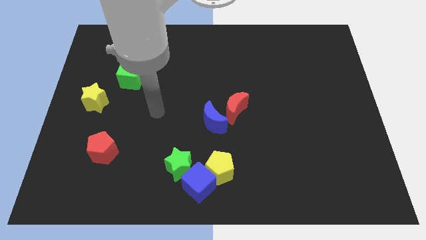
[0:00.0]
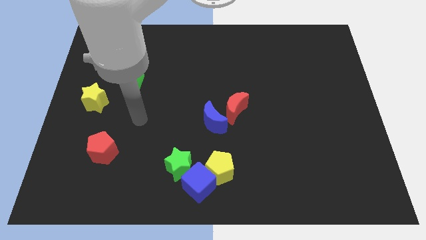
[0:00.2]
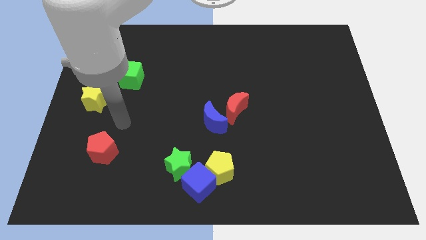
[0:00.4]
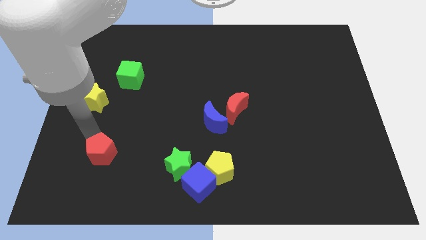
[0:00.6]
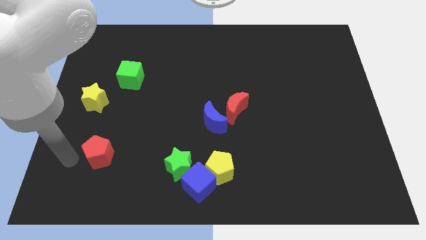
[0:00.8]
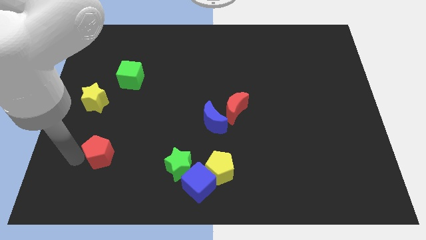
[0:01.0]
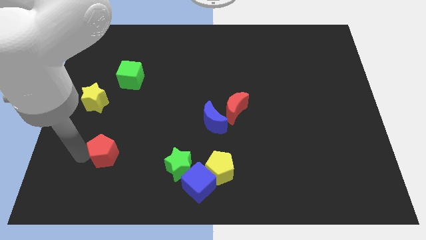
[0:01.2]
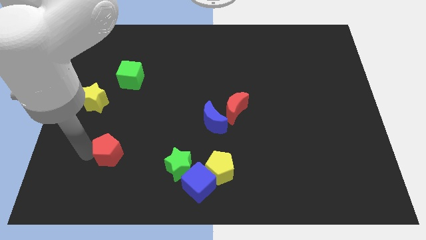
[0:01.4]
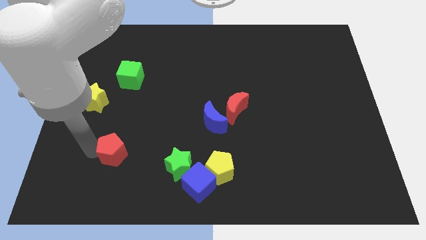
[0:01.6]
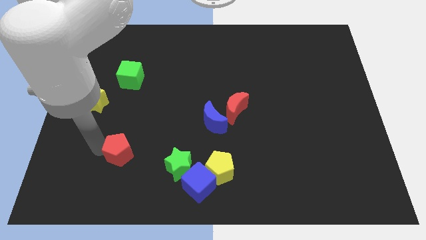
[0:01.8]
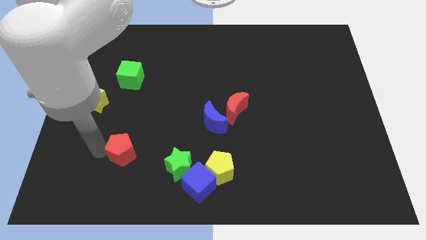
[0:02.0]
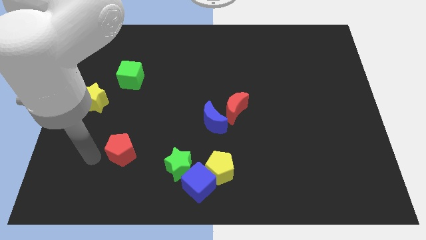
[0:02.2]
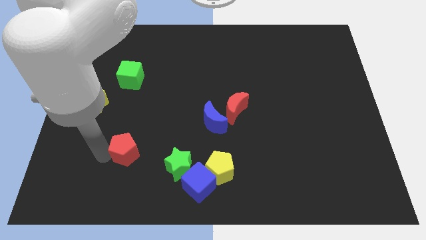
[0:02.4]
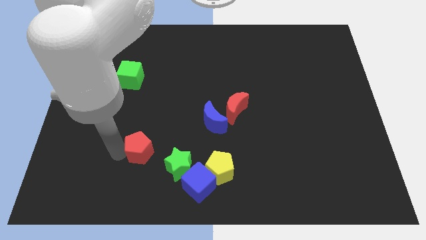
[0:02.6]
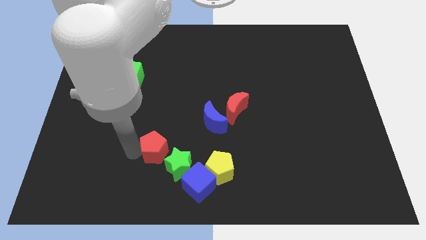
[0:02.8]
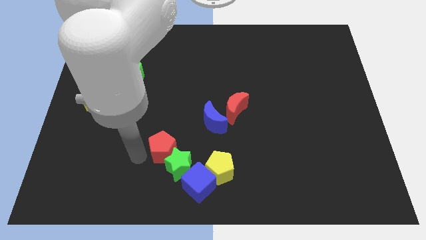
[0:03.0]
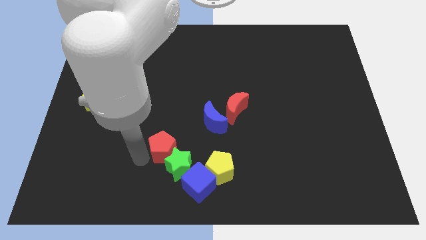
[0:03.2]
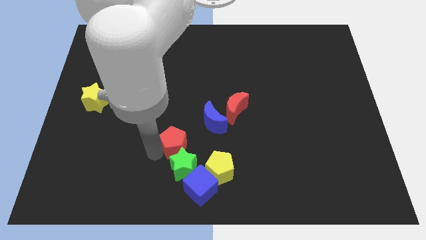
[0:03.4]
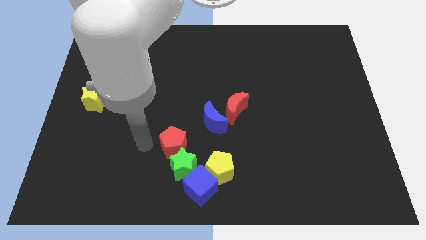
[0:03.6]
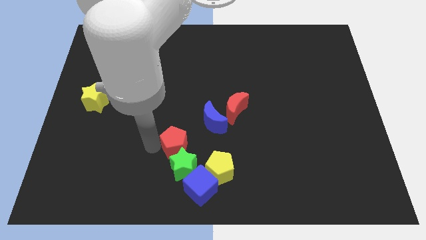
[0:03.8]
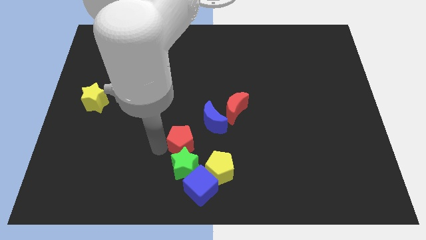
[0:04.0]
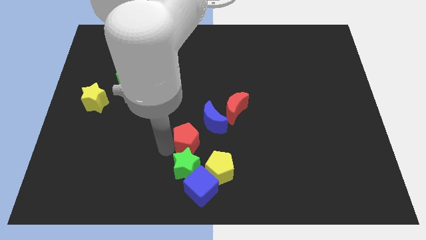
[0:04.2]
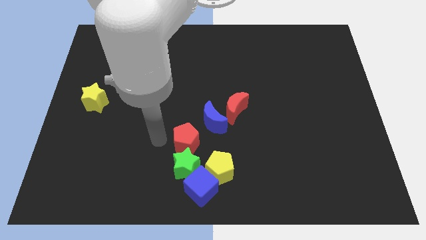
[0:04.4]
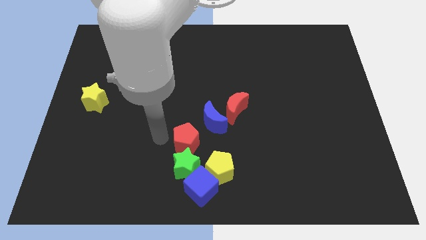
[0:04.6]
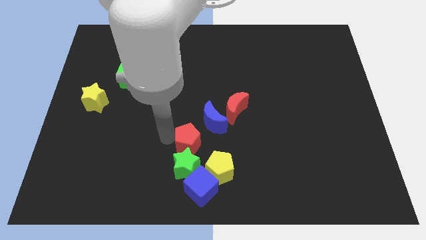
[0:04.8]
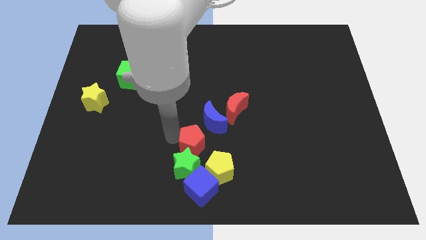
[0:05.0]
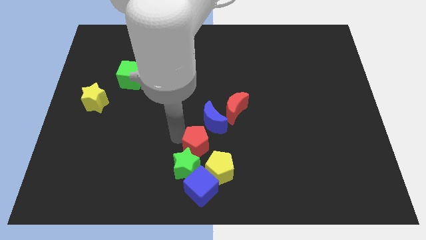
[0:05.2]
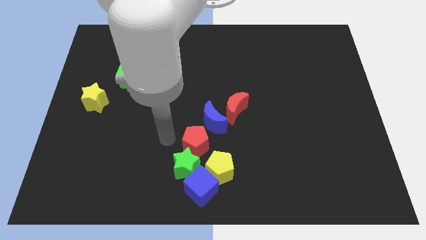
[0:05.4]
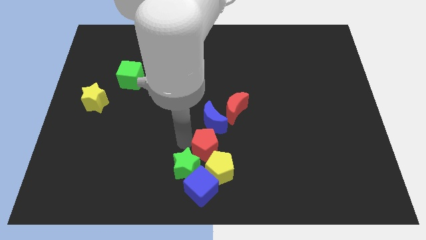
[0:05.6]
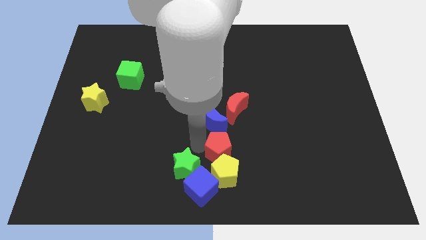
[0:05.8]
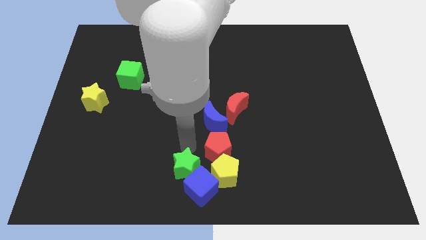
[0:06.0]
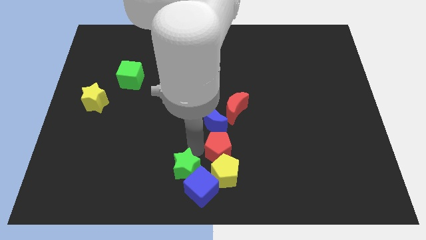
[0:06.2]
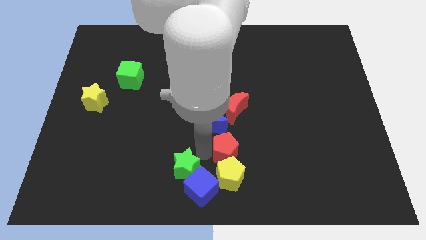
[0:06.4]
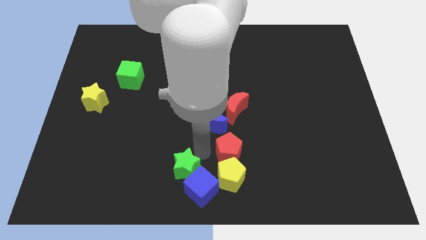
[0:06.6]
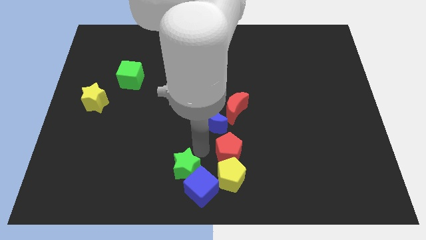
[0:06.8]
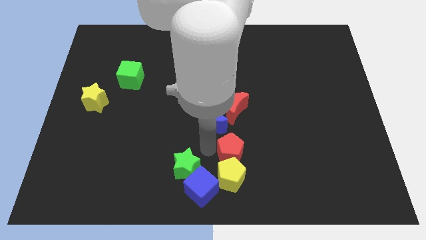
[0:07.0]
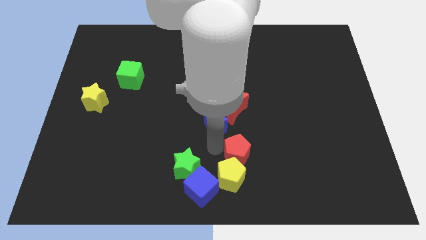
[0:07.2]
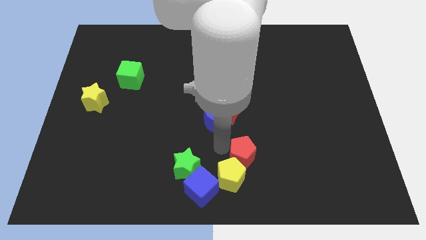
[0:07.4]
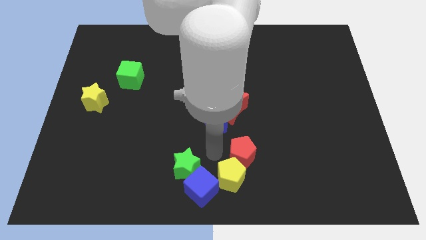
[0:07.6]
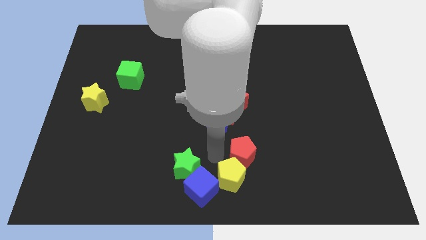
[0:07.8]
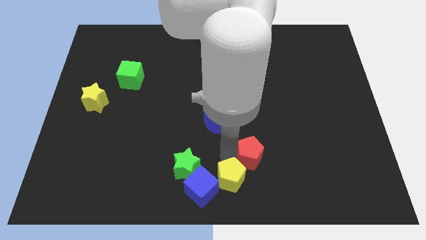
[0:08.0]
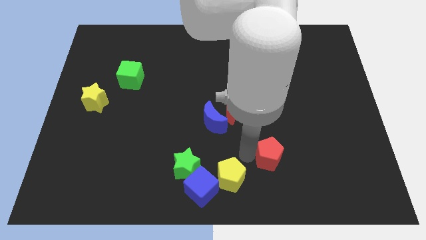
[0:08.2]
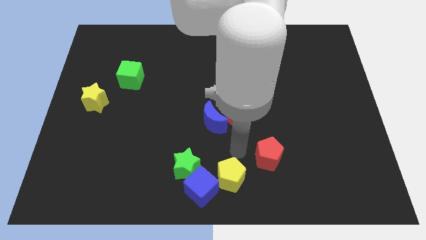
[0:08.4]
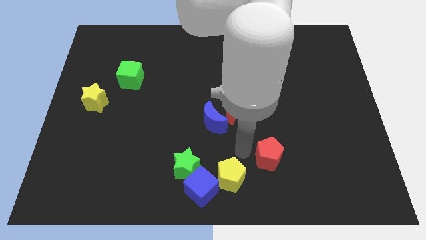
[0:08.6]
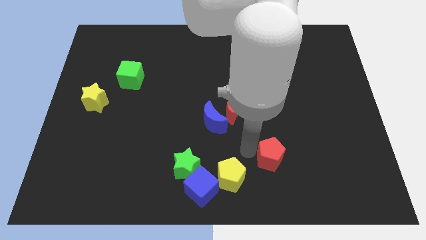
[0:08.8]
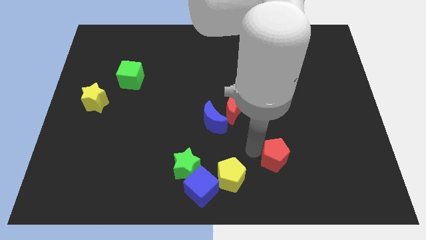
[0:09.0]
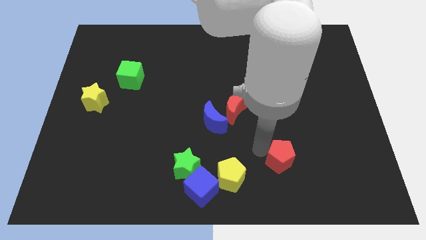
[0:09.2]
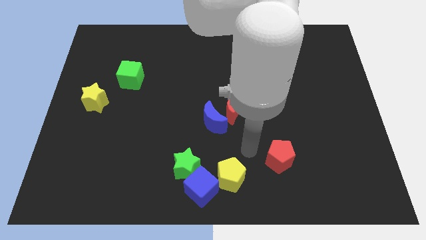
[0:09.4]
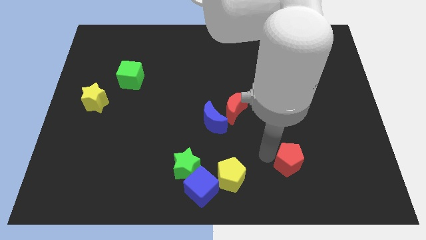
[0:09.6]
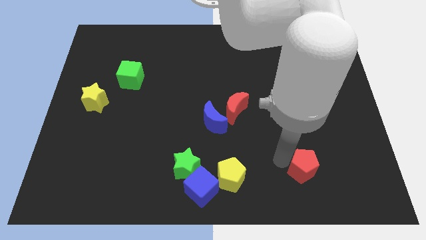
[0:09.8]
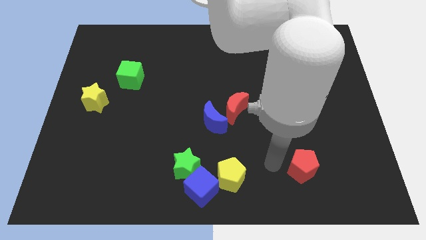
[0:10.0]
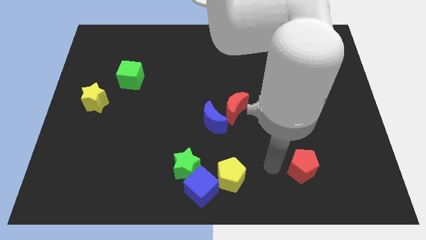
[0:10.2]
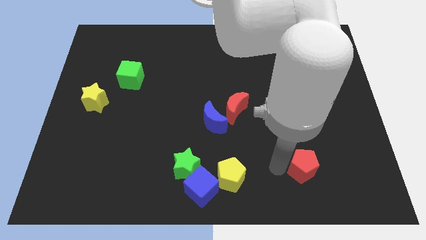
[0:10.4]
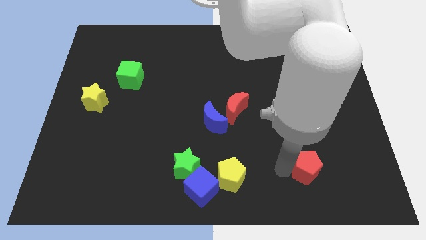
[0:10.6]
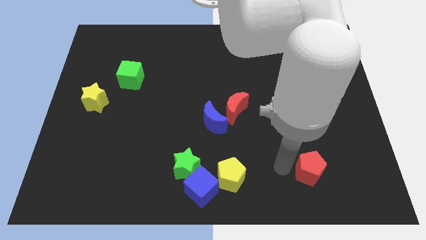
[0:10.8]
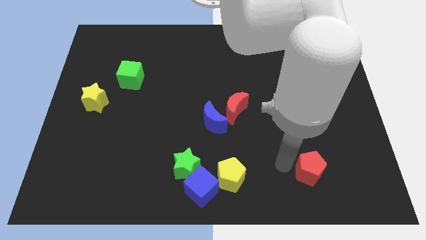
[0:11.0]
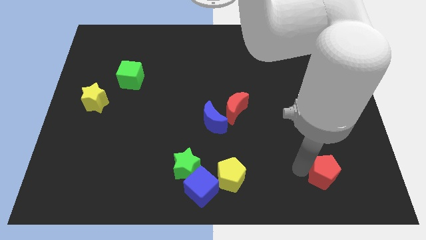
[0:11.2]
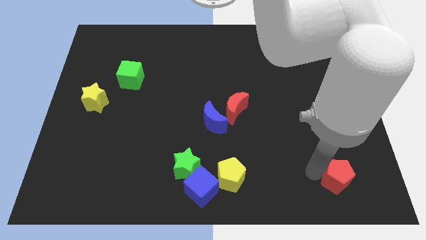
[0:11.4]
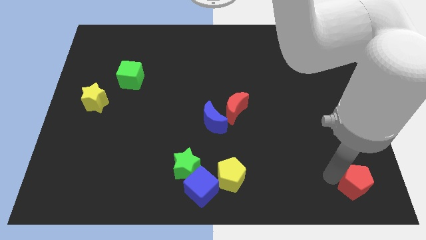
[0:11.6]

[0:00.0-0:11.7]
slide the red pentagon to the lower right corner
